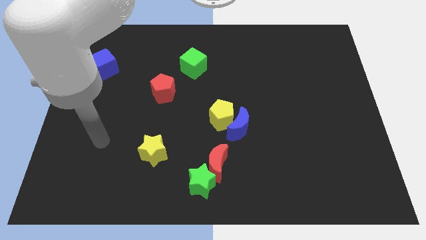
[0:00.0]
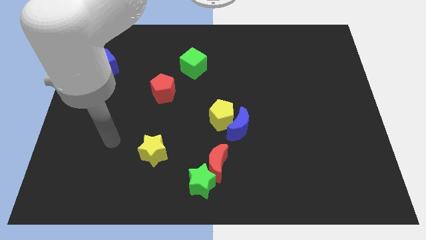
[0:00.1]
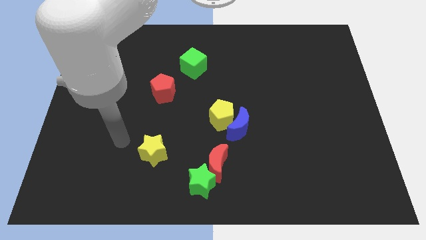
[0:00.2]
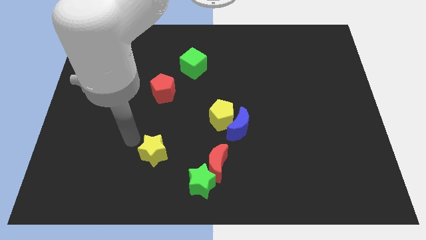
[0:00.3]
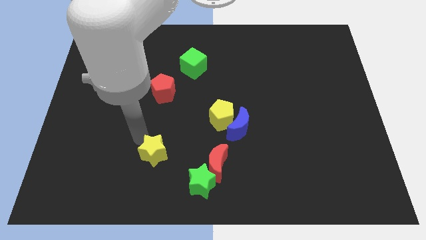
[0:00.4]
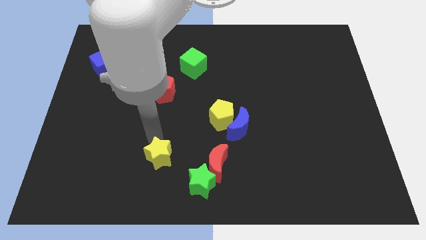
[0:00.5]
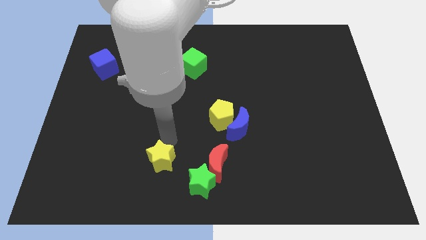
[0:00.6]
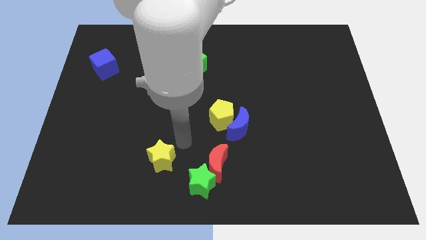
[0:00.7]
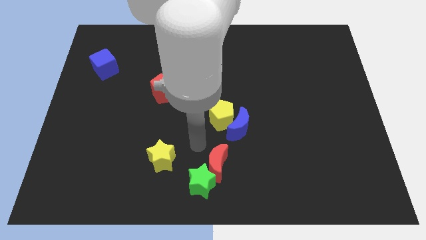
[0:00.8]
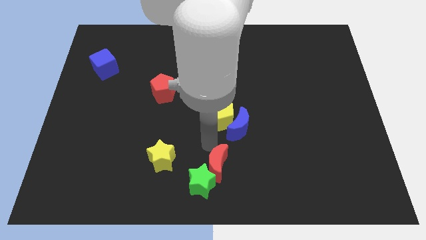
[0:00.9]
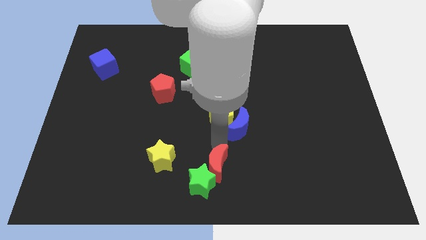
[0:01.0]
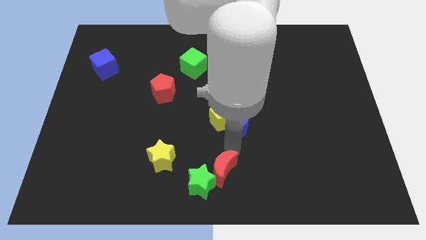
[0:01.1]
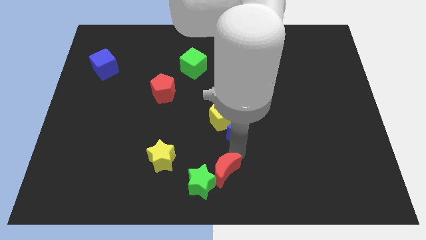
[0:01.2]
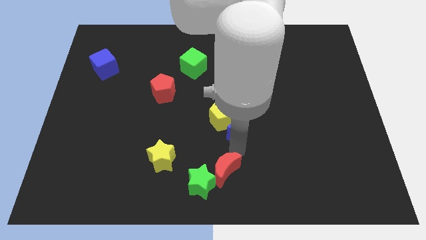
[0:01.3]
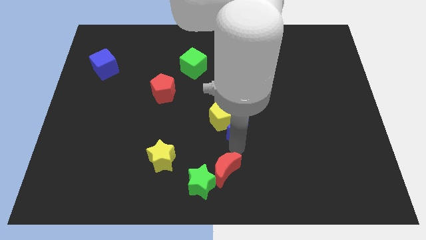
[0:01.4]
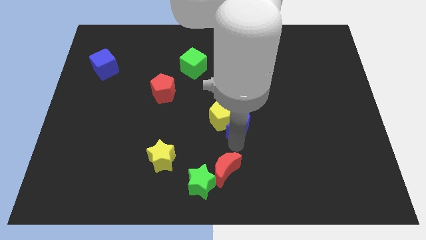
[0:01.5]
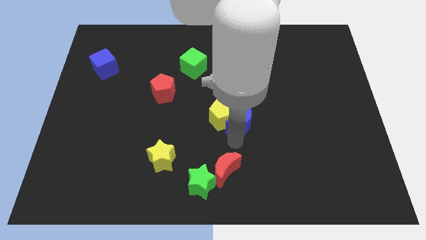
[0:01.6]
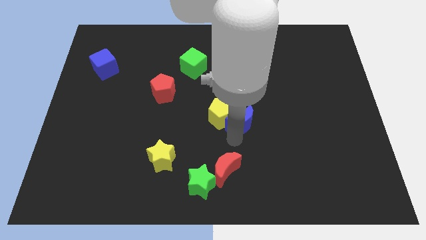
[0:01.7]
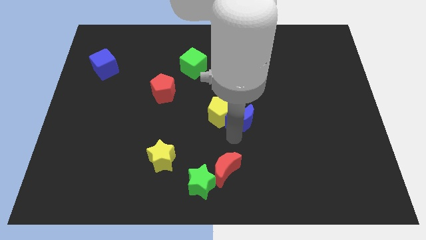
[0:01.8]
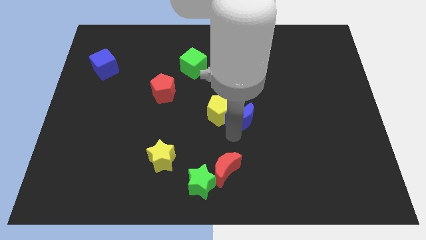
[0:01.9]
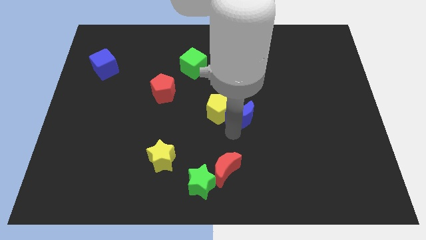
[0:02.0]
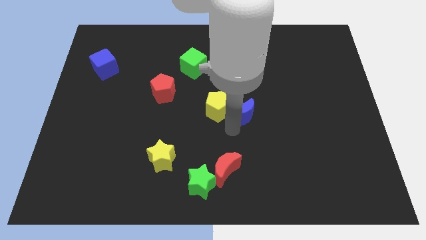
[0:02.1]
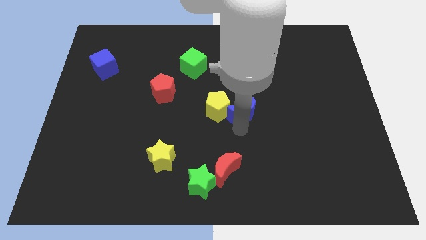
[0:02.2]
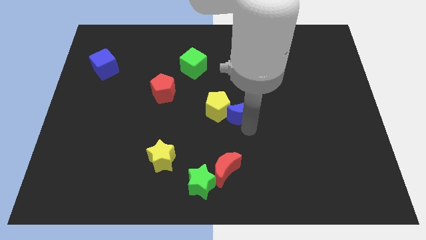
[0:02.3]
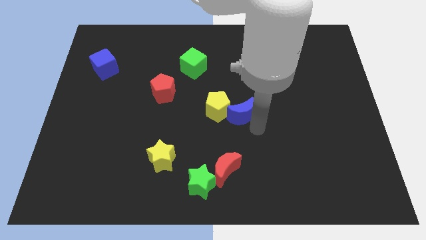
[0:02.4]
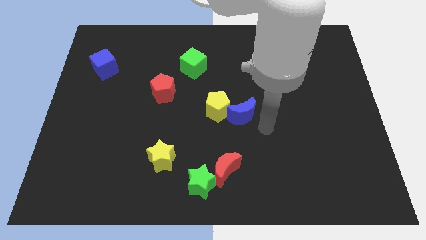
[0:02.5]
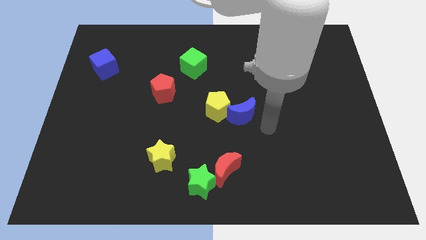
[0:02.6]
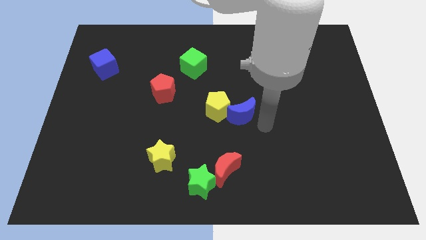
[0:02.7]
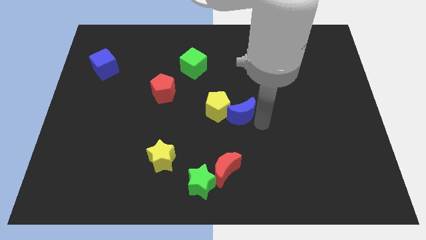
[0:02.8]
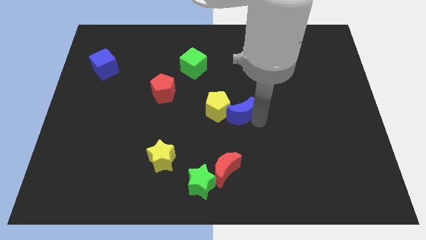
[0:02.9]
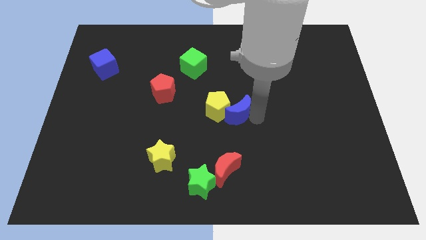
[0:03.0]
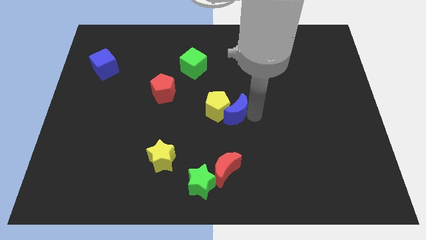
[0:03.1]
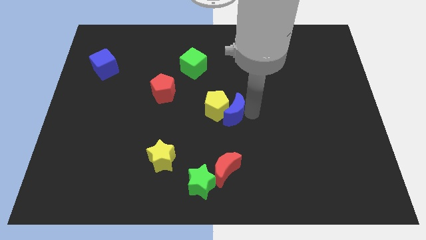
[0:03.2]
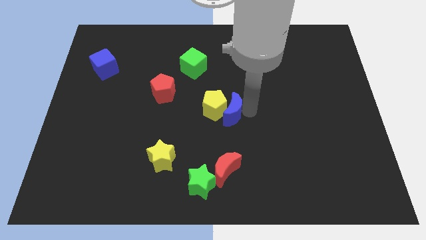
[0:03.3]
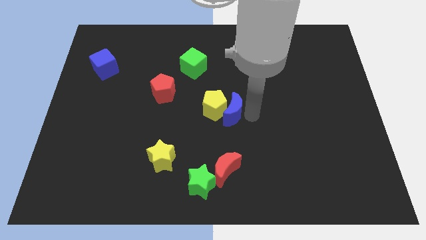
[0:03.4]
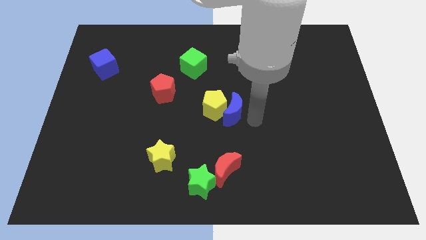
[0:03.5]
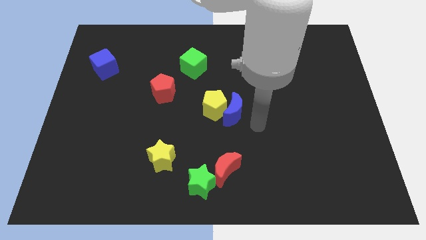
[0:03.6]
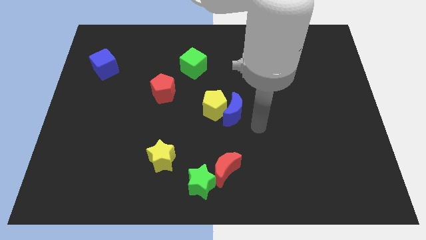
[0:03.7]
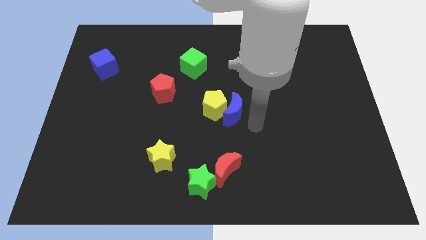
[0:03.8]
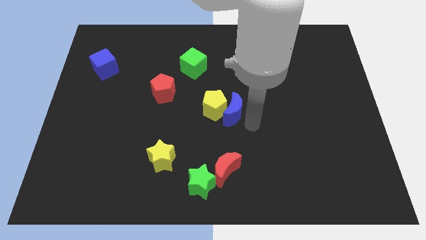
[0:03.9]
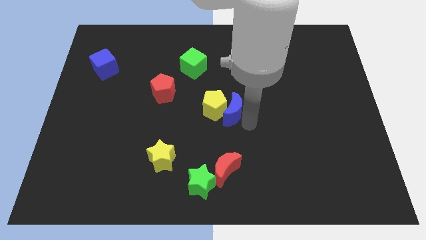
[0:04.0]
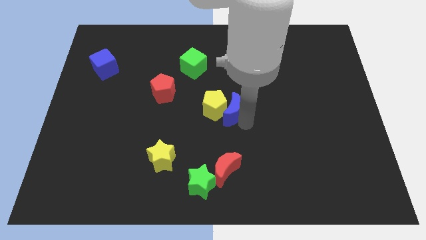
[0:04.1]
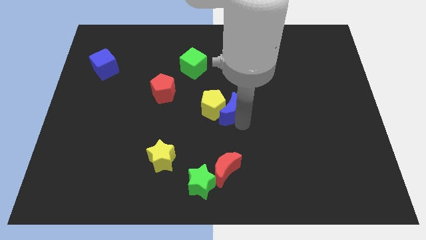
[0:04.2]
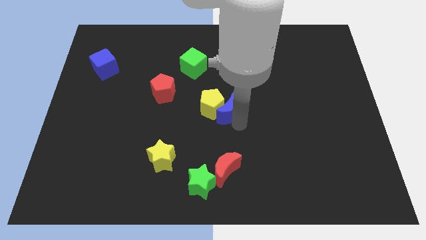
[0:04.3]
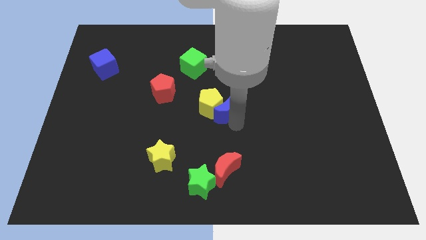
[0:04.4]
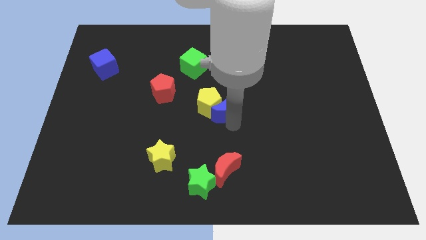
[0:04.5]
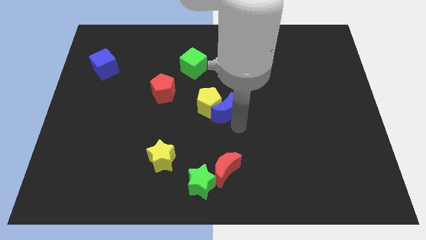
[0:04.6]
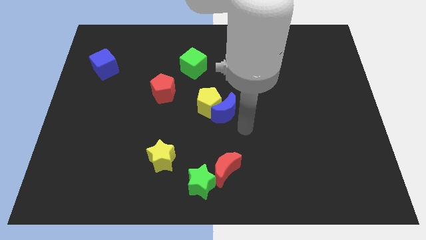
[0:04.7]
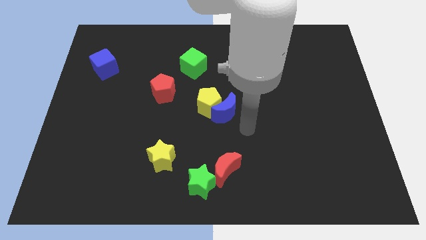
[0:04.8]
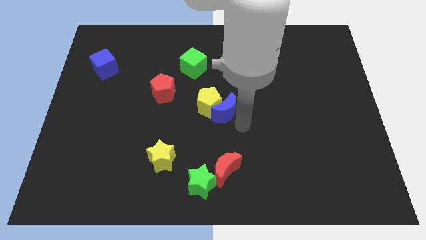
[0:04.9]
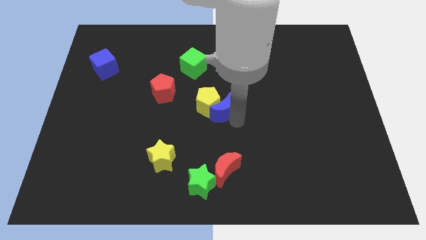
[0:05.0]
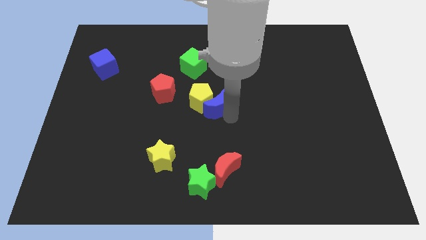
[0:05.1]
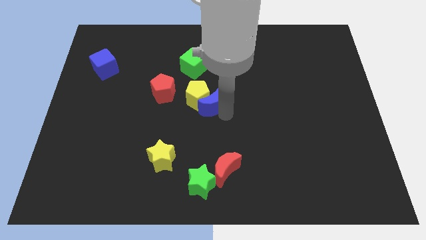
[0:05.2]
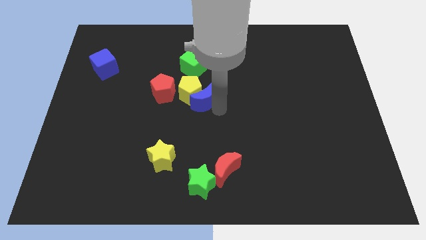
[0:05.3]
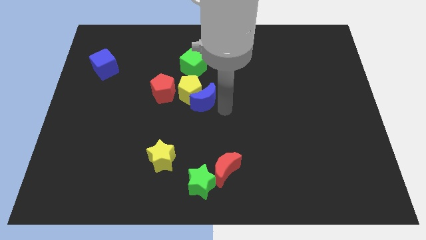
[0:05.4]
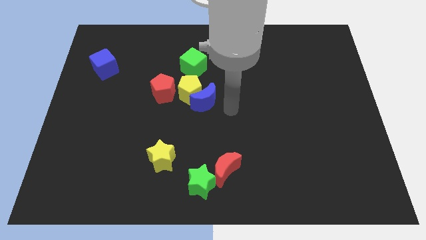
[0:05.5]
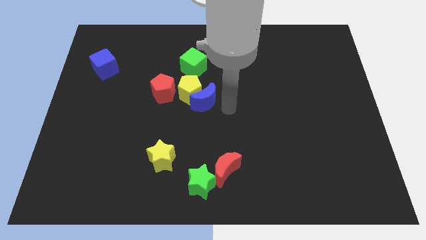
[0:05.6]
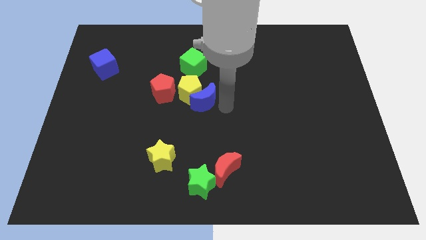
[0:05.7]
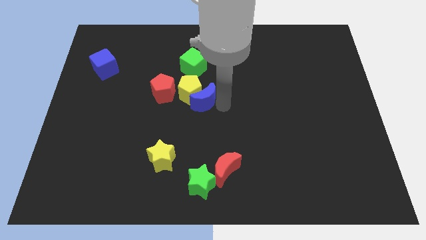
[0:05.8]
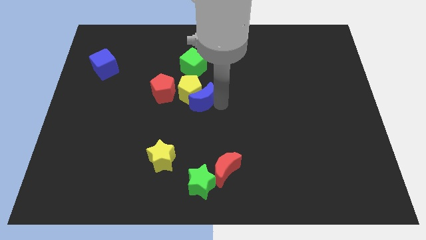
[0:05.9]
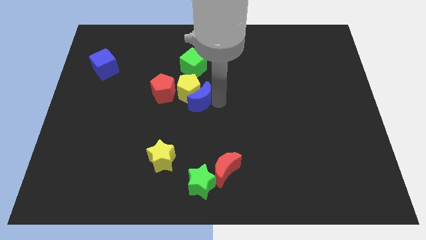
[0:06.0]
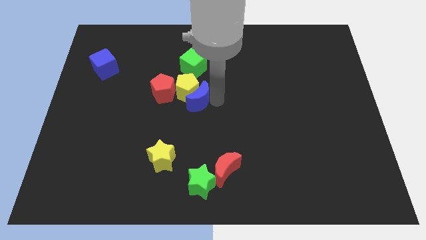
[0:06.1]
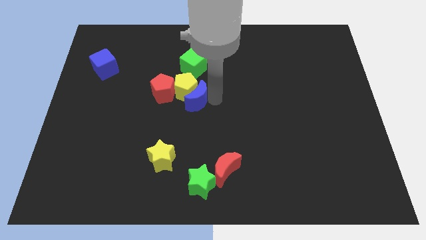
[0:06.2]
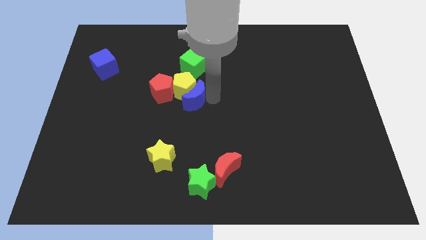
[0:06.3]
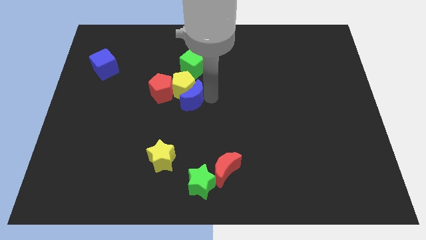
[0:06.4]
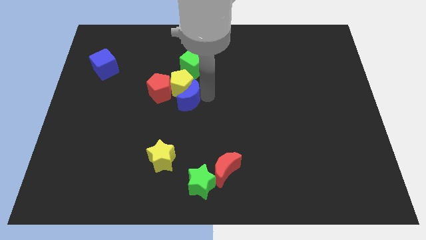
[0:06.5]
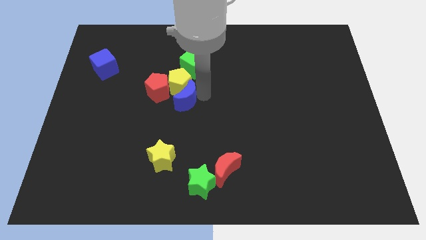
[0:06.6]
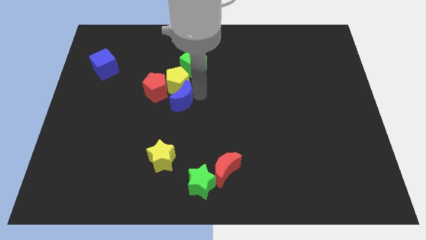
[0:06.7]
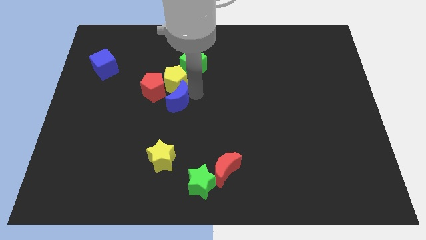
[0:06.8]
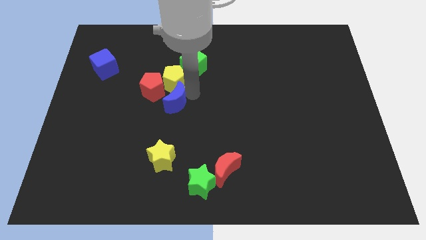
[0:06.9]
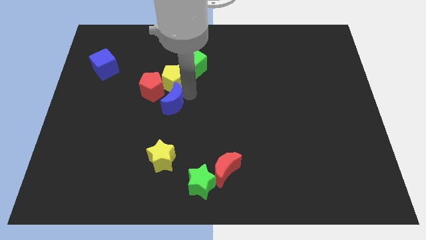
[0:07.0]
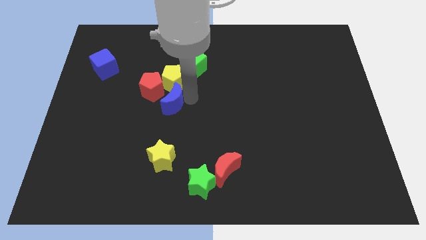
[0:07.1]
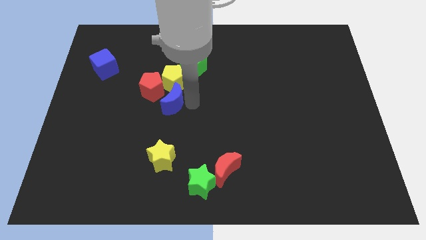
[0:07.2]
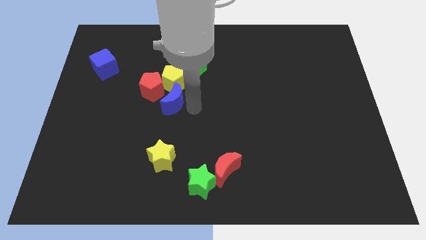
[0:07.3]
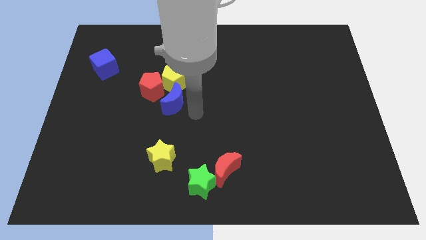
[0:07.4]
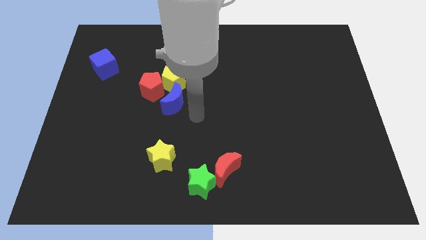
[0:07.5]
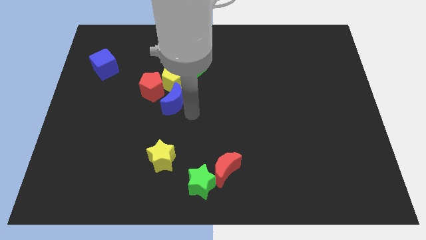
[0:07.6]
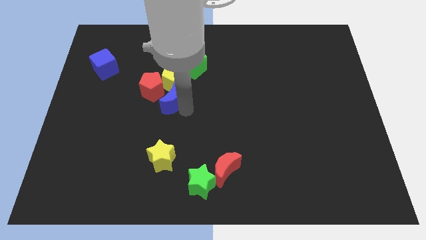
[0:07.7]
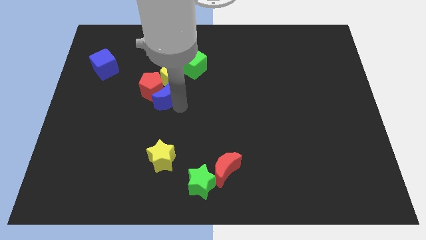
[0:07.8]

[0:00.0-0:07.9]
move the blue moon to the red pentagon

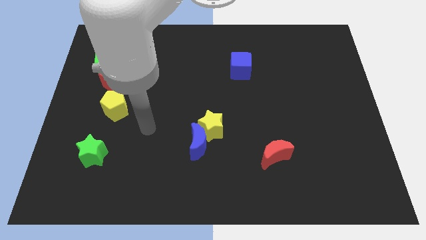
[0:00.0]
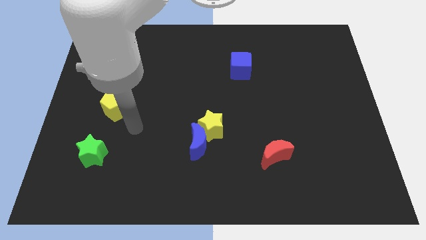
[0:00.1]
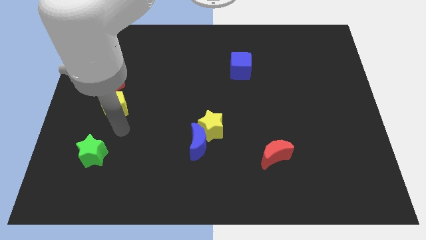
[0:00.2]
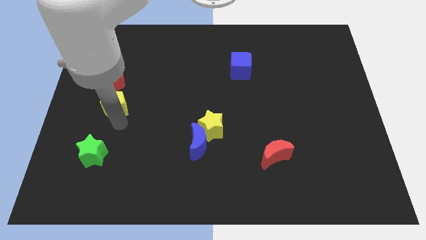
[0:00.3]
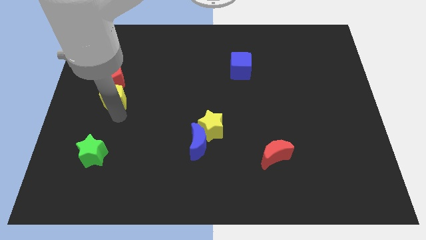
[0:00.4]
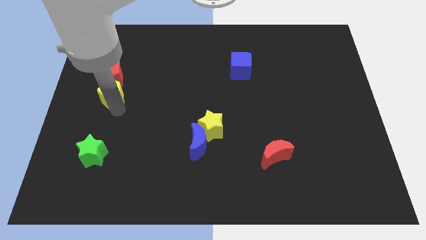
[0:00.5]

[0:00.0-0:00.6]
slide the yellow pentagon close to the red pentagon
